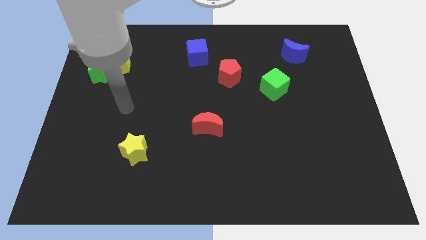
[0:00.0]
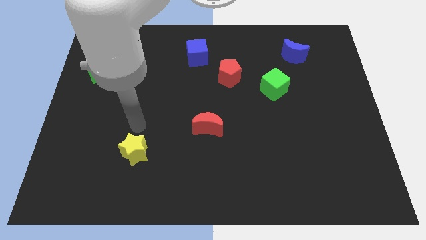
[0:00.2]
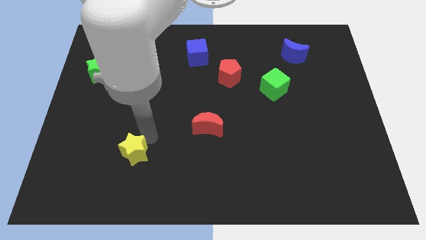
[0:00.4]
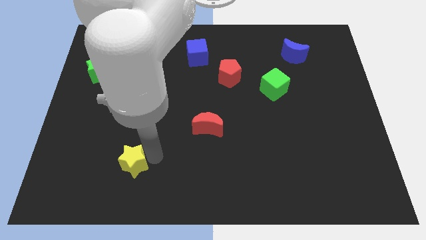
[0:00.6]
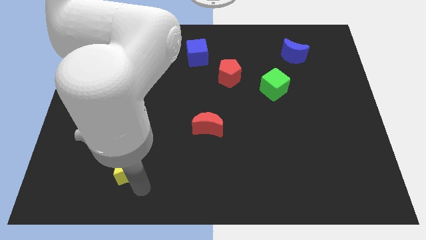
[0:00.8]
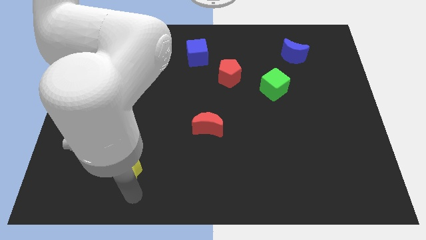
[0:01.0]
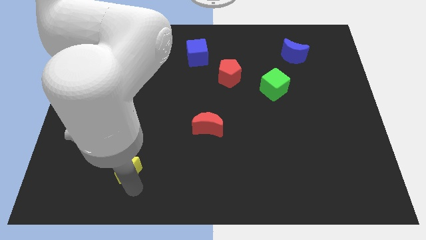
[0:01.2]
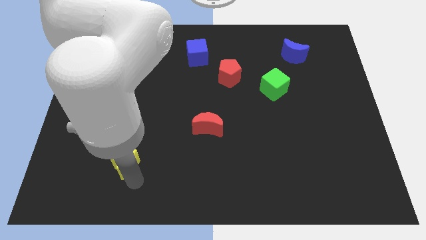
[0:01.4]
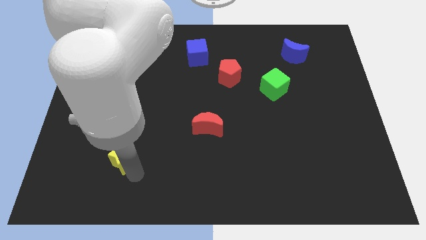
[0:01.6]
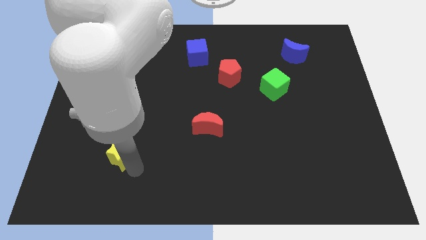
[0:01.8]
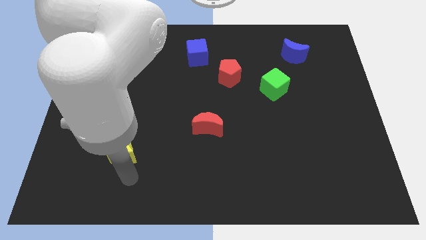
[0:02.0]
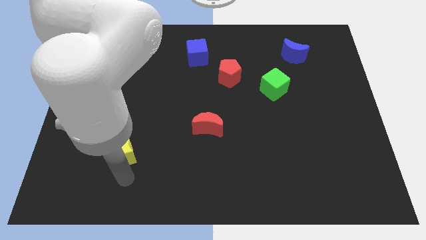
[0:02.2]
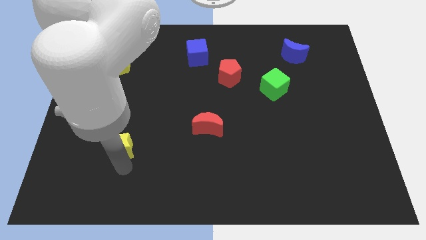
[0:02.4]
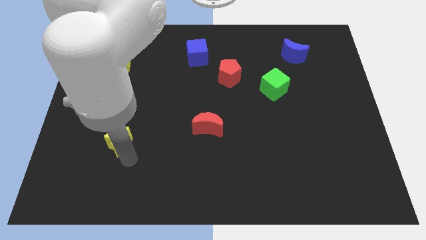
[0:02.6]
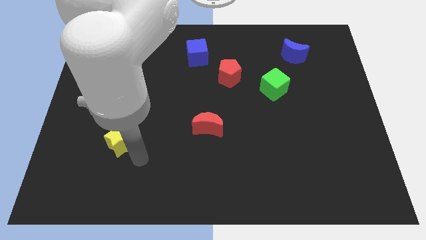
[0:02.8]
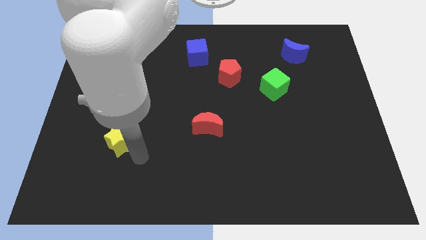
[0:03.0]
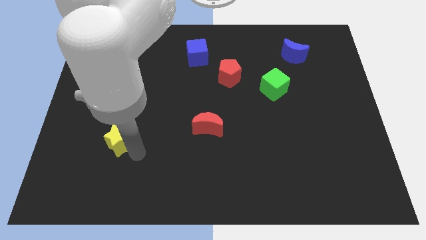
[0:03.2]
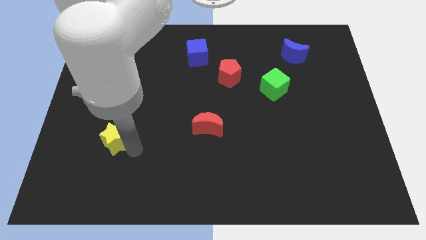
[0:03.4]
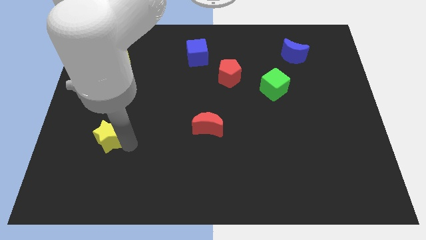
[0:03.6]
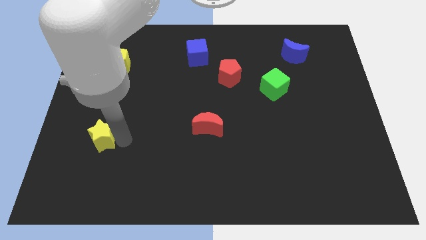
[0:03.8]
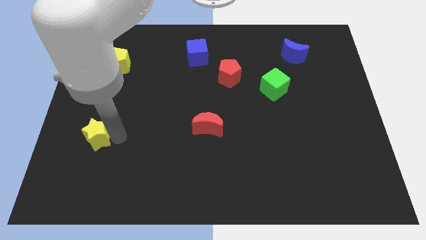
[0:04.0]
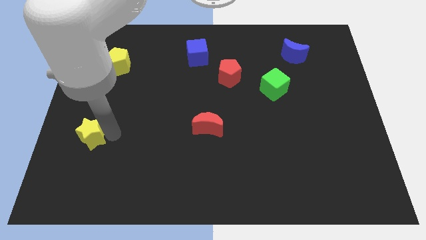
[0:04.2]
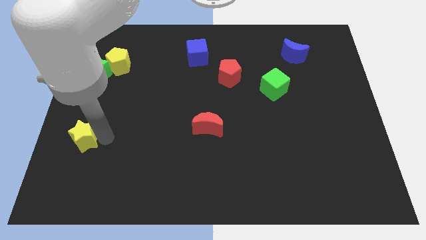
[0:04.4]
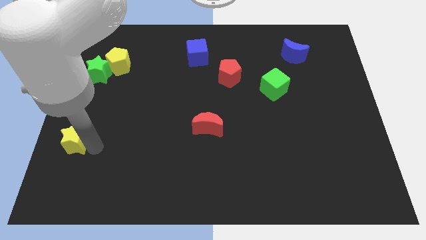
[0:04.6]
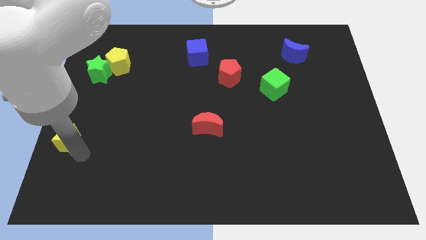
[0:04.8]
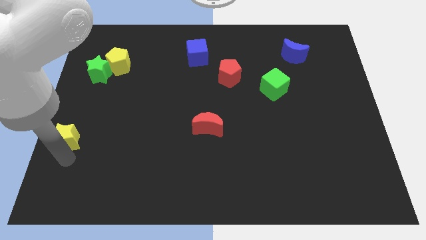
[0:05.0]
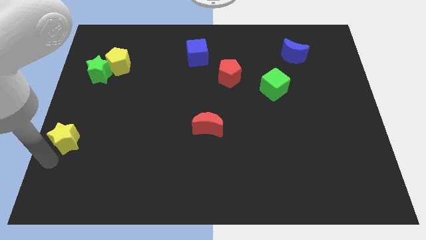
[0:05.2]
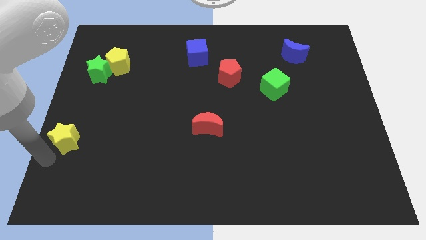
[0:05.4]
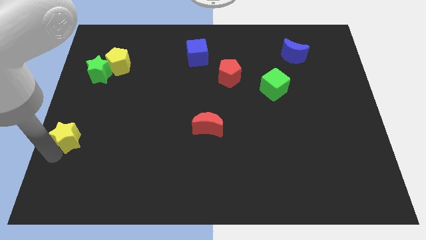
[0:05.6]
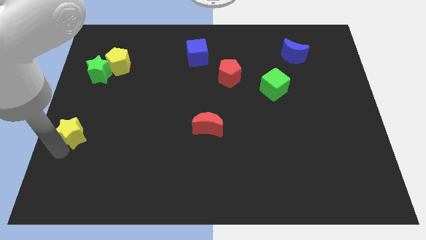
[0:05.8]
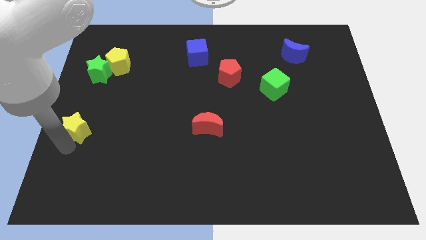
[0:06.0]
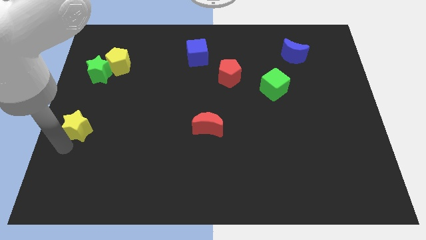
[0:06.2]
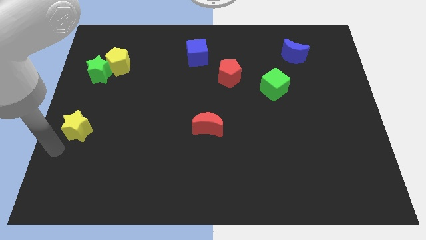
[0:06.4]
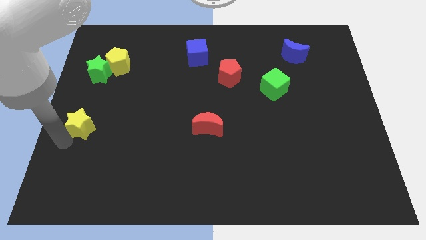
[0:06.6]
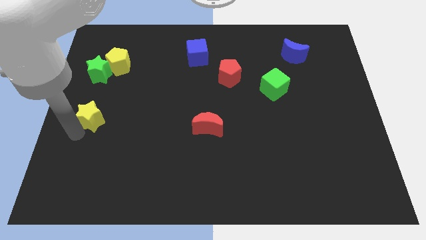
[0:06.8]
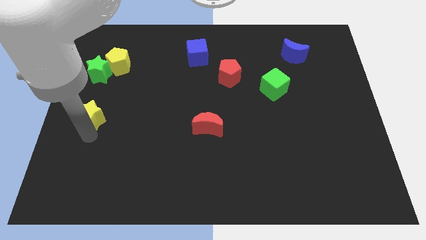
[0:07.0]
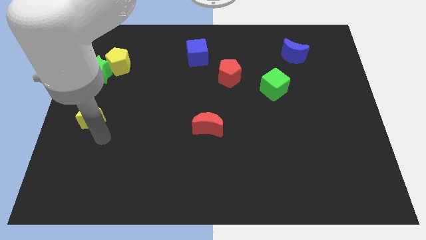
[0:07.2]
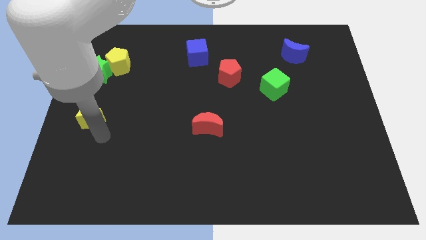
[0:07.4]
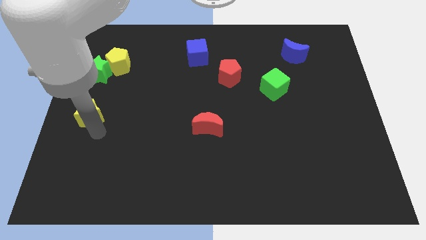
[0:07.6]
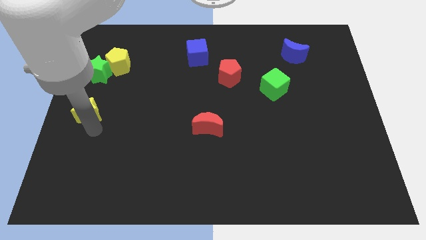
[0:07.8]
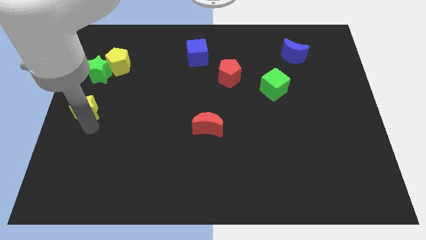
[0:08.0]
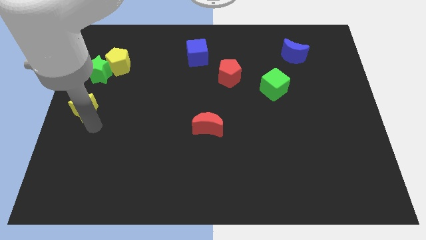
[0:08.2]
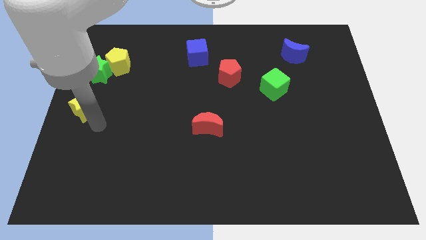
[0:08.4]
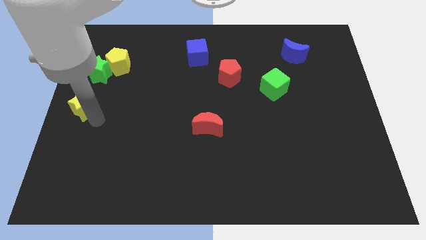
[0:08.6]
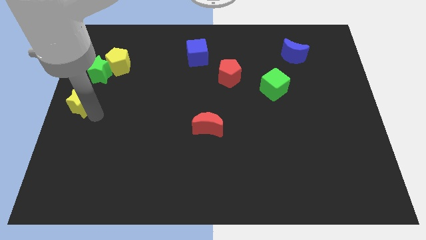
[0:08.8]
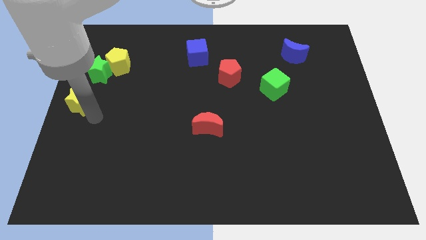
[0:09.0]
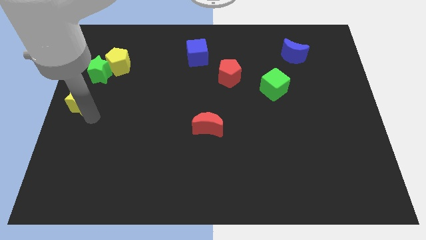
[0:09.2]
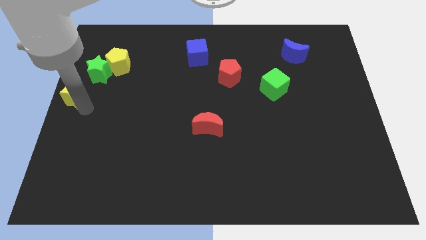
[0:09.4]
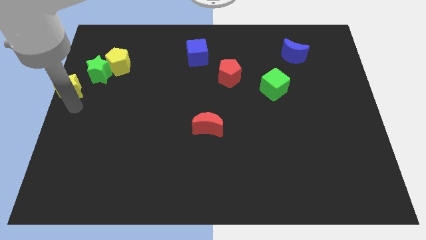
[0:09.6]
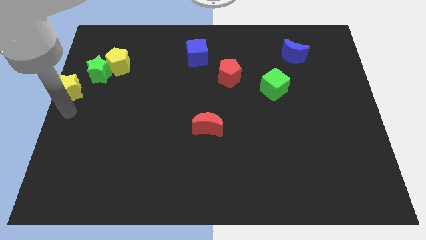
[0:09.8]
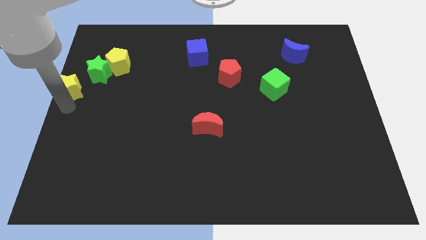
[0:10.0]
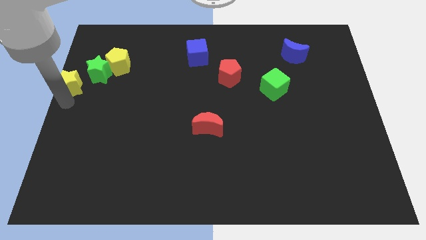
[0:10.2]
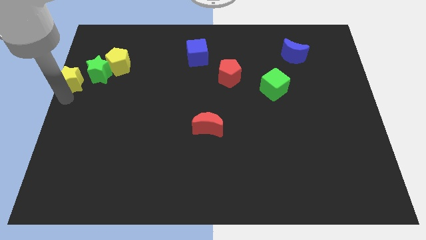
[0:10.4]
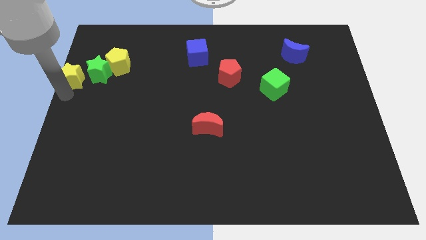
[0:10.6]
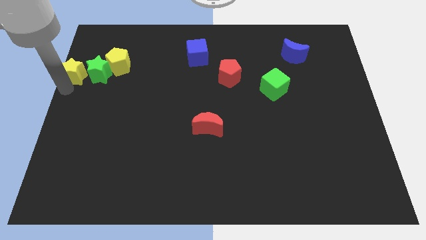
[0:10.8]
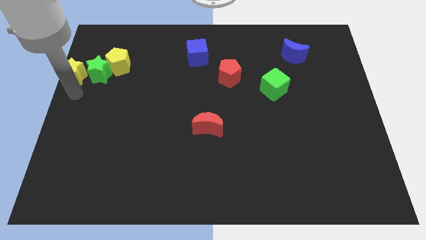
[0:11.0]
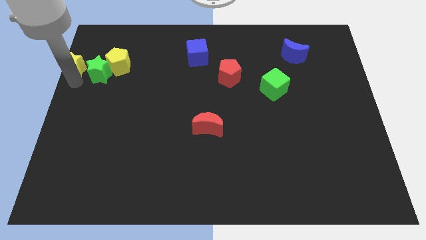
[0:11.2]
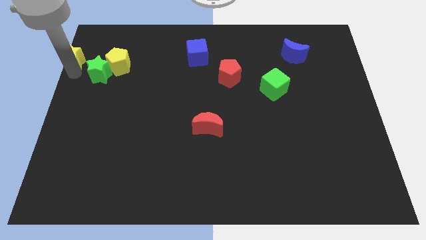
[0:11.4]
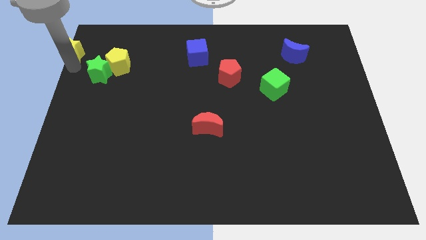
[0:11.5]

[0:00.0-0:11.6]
put the yellow star to the top left of the board
